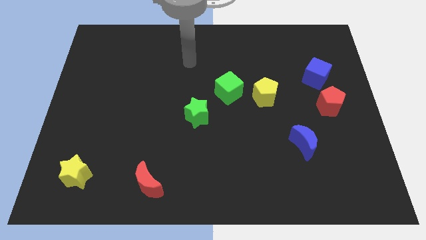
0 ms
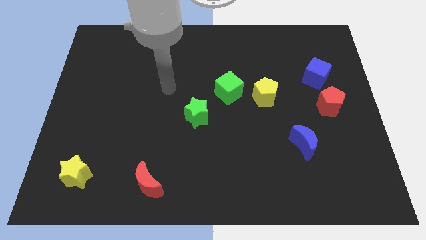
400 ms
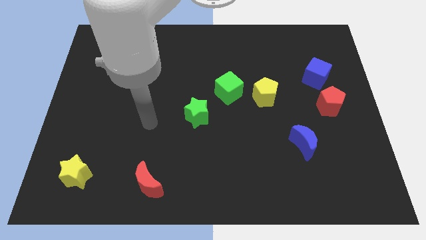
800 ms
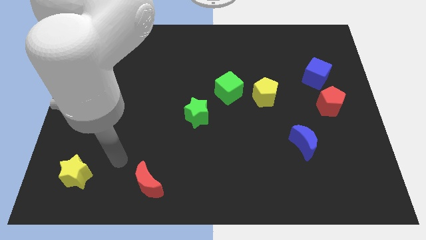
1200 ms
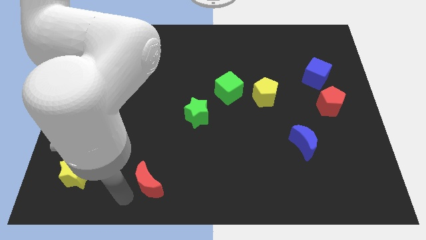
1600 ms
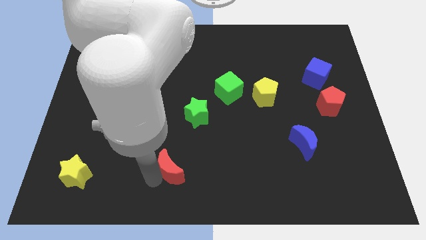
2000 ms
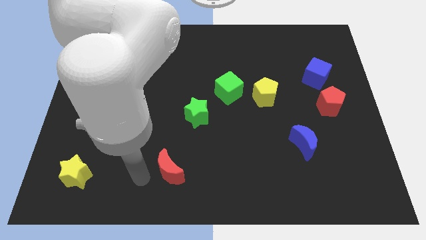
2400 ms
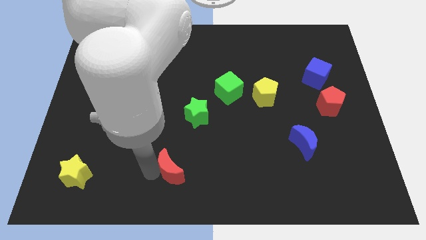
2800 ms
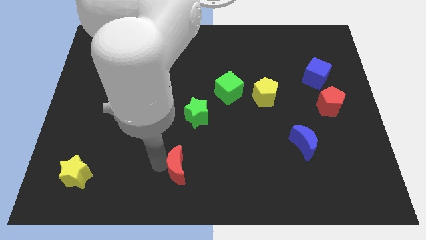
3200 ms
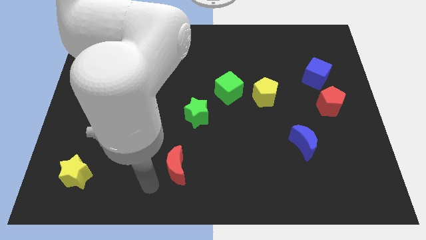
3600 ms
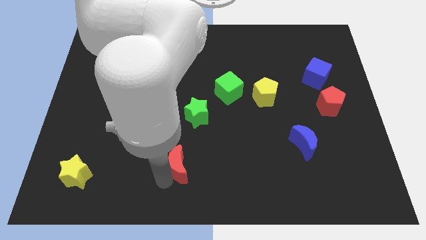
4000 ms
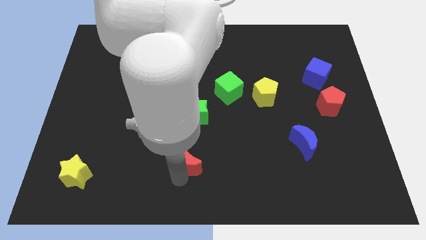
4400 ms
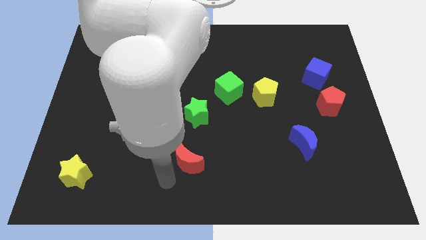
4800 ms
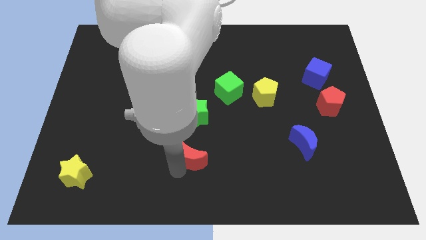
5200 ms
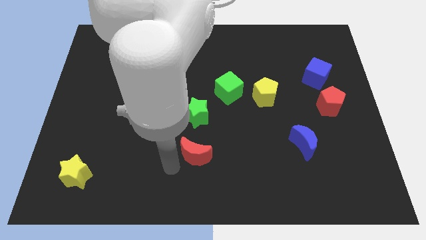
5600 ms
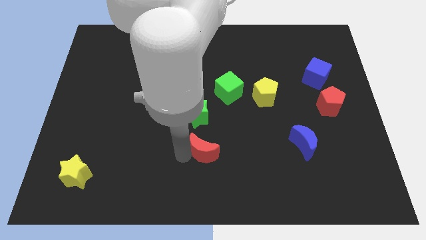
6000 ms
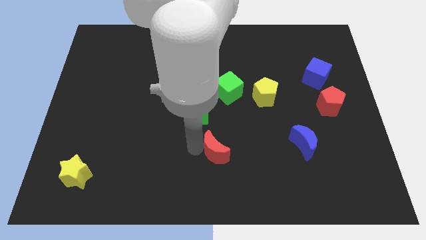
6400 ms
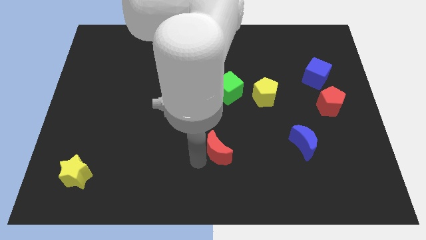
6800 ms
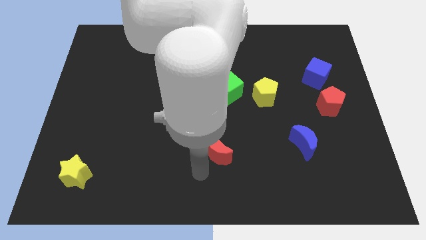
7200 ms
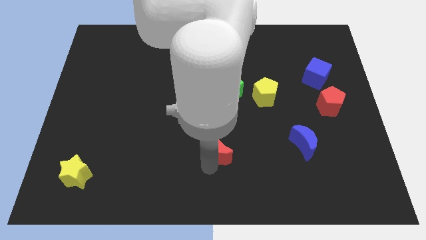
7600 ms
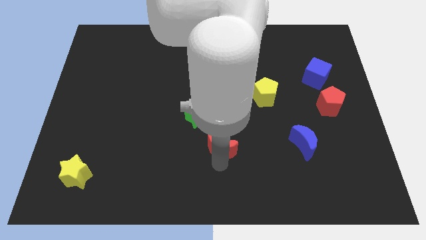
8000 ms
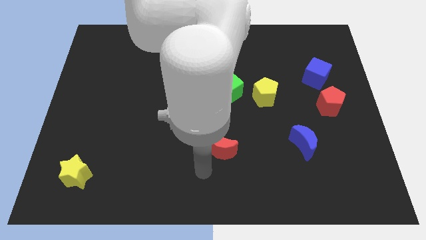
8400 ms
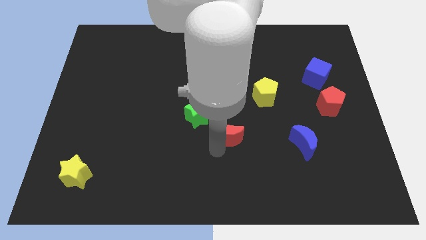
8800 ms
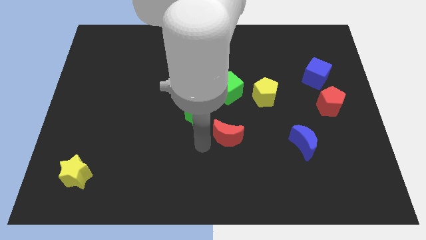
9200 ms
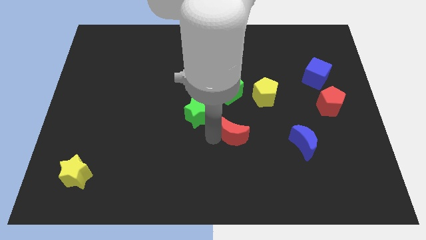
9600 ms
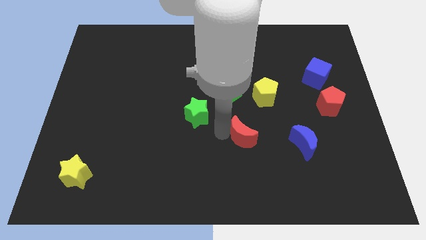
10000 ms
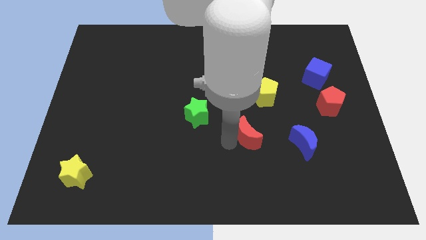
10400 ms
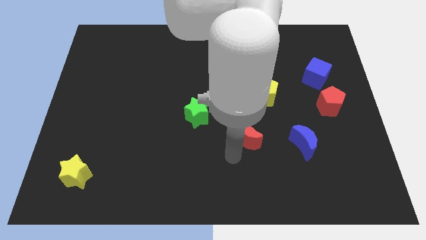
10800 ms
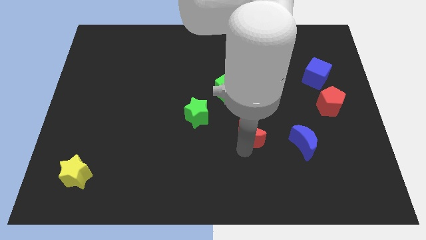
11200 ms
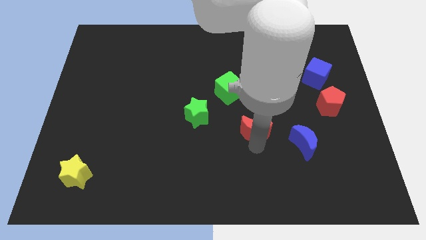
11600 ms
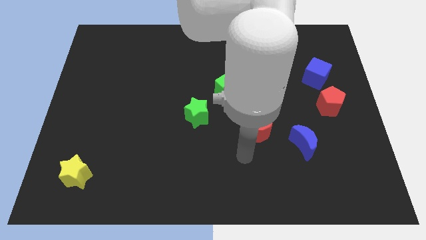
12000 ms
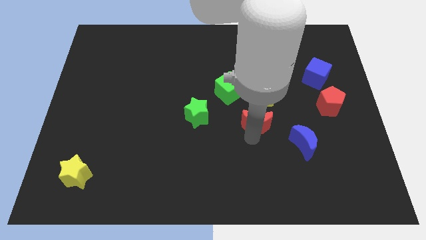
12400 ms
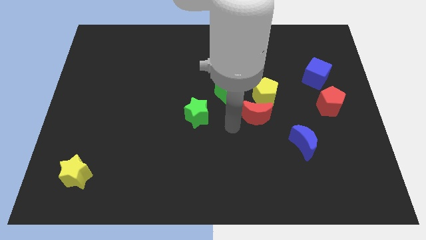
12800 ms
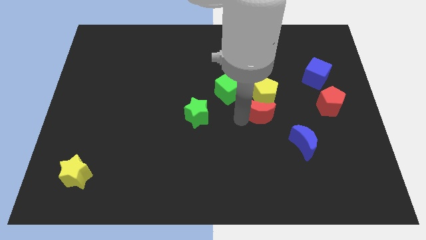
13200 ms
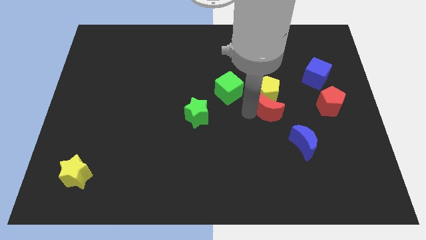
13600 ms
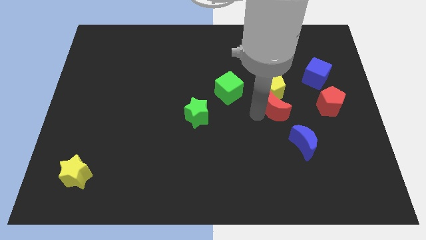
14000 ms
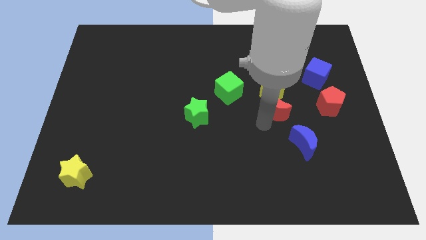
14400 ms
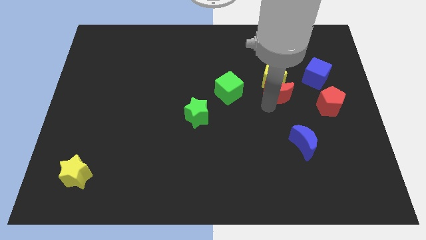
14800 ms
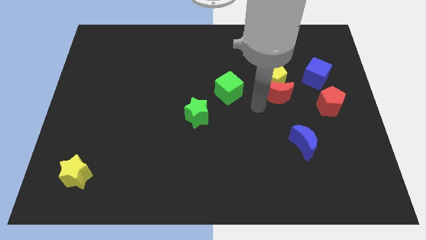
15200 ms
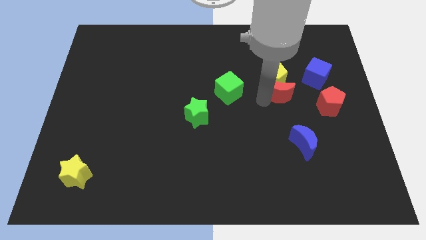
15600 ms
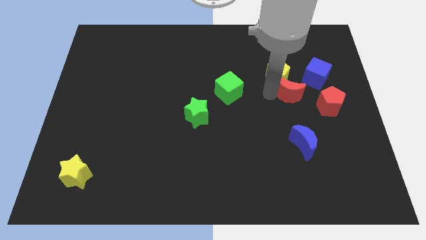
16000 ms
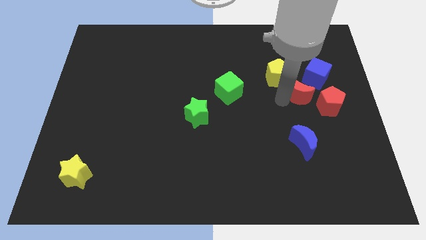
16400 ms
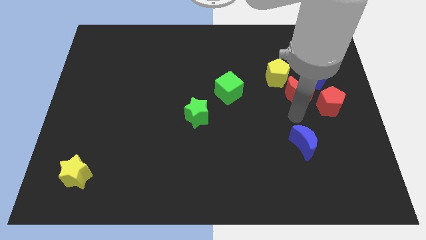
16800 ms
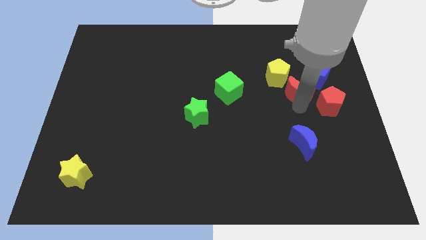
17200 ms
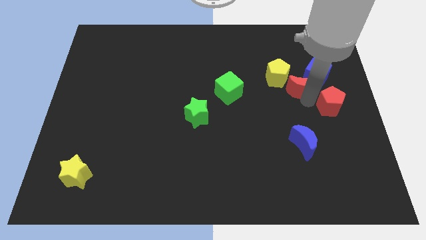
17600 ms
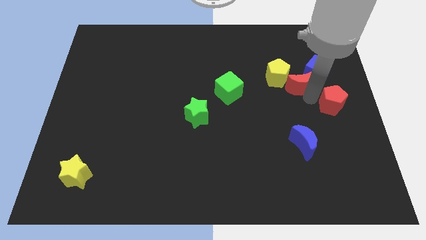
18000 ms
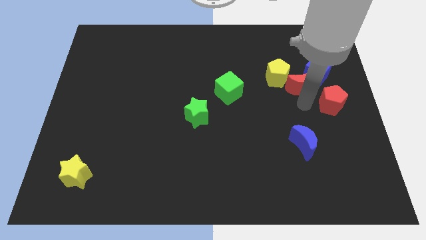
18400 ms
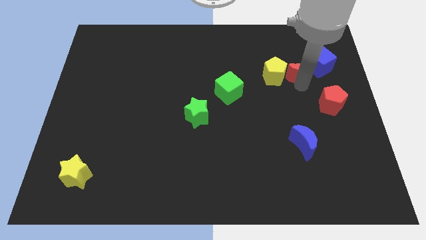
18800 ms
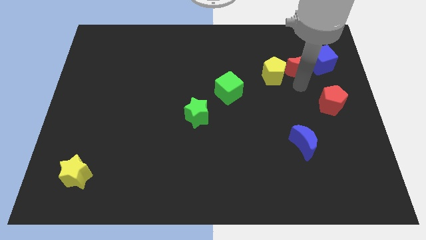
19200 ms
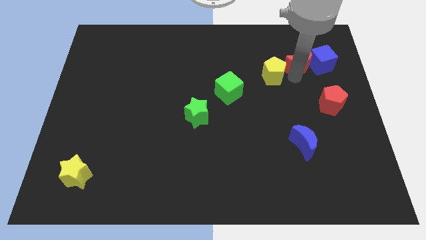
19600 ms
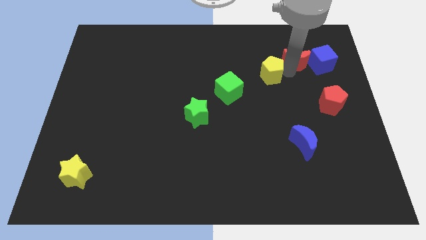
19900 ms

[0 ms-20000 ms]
slide the red moon to the top left side of the blue cube

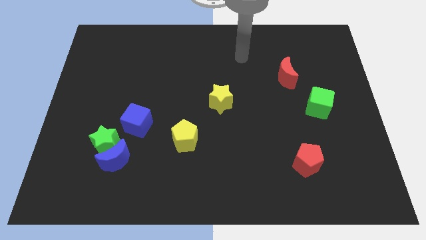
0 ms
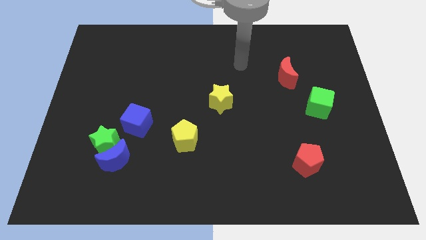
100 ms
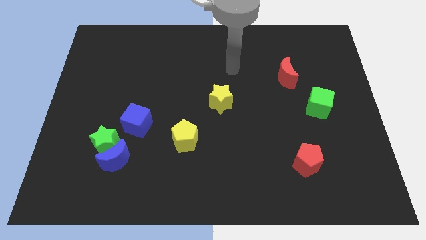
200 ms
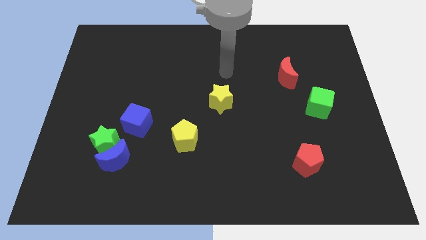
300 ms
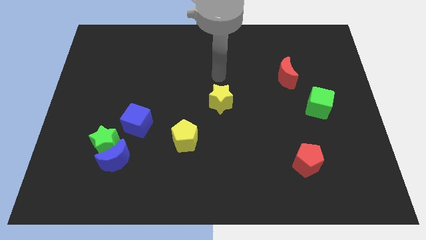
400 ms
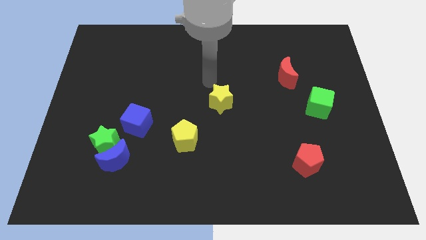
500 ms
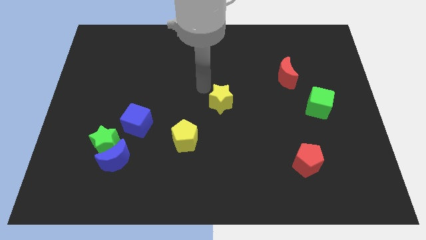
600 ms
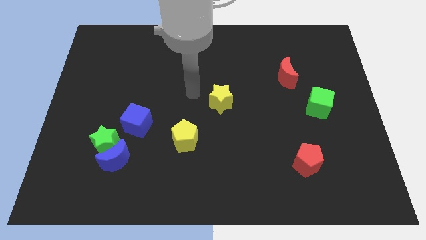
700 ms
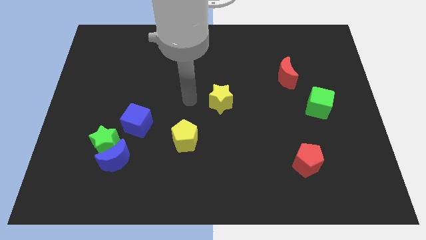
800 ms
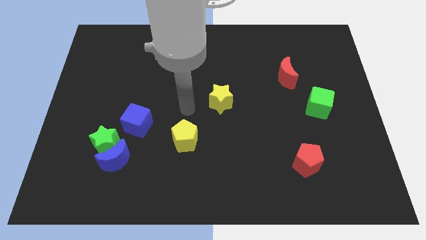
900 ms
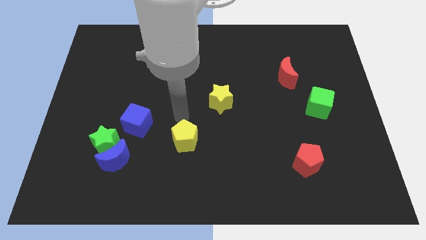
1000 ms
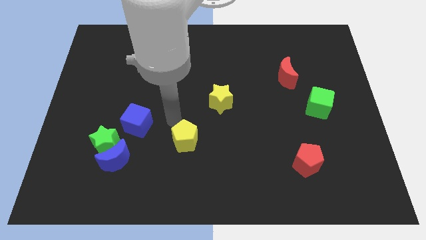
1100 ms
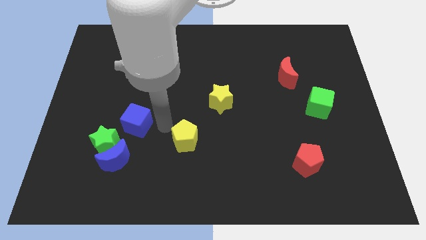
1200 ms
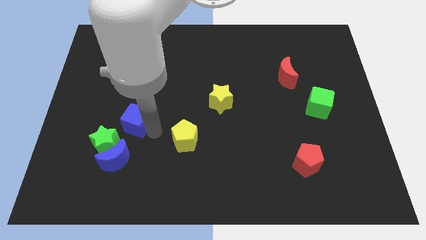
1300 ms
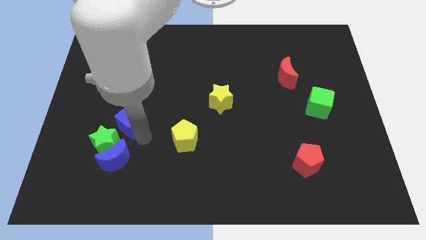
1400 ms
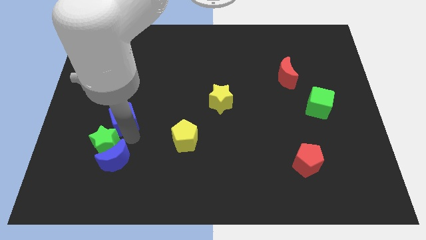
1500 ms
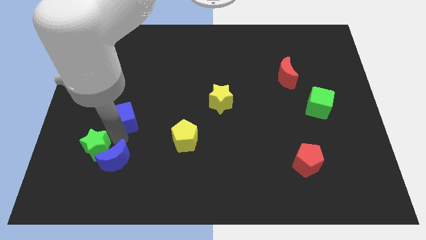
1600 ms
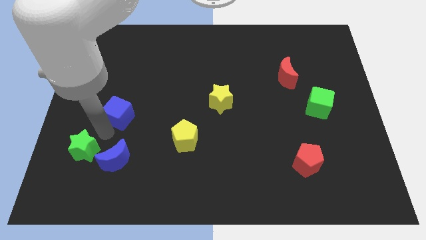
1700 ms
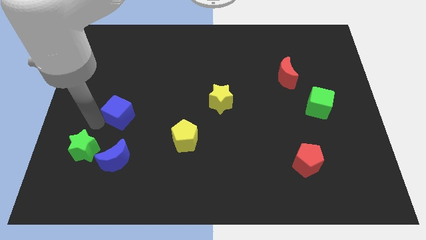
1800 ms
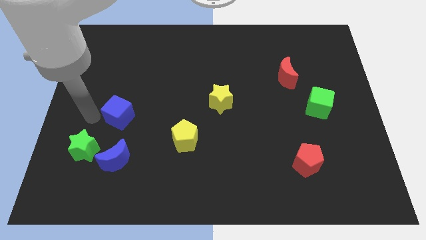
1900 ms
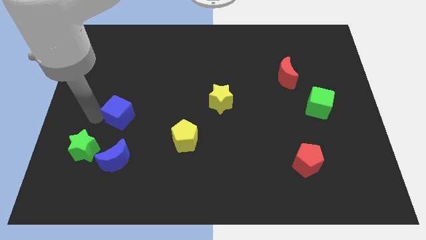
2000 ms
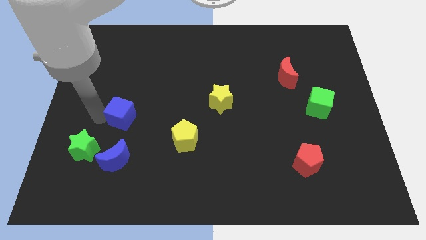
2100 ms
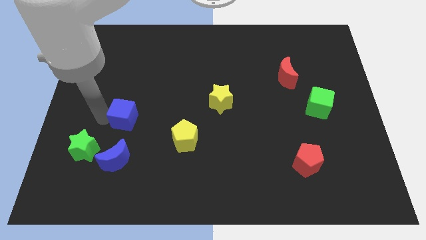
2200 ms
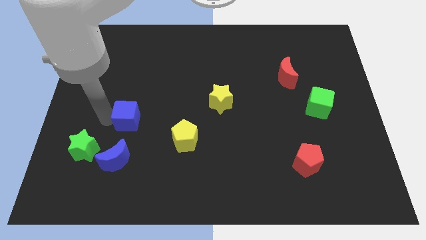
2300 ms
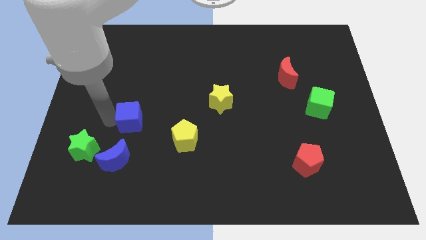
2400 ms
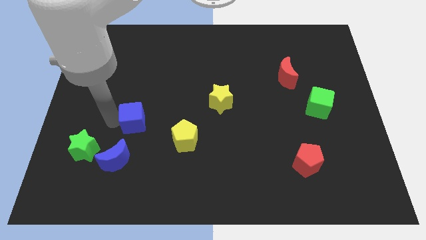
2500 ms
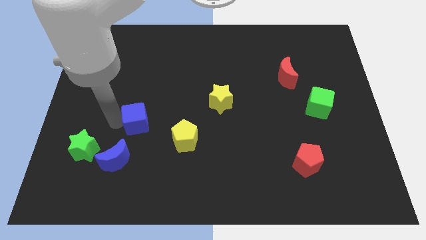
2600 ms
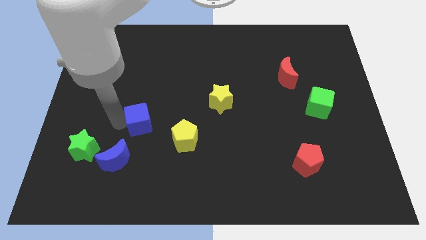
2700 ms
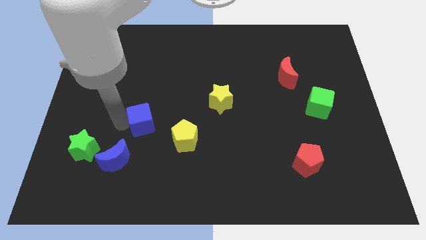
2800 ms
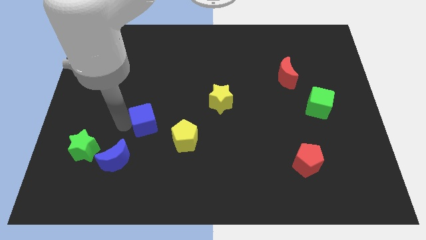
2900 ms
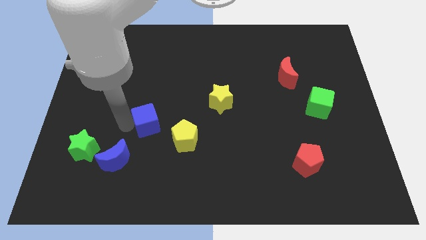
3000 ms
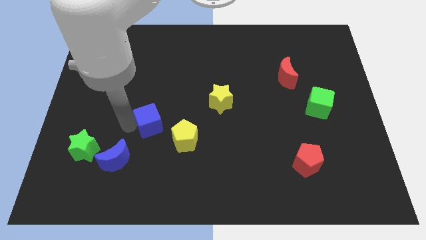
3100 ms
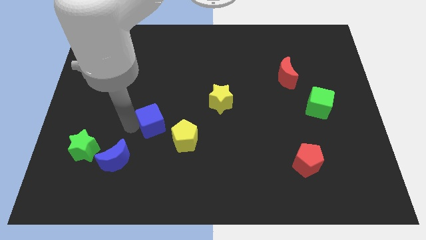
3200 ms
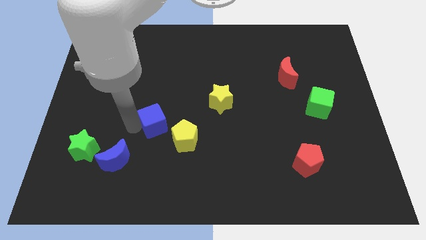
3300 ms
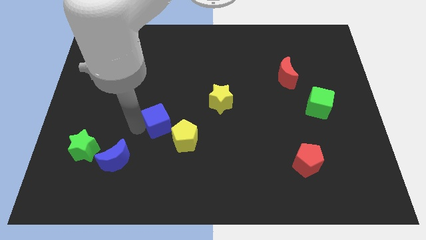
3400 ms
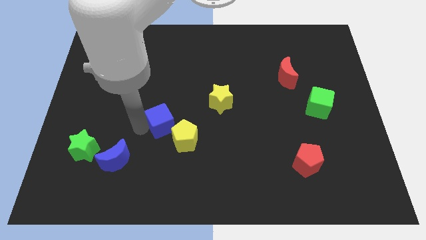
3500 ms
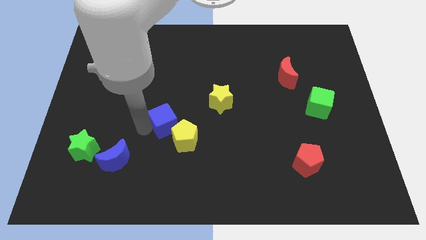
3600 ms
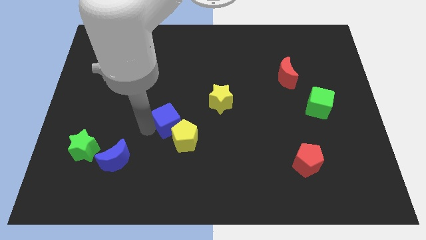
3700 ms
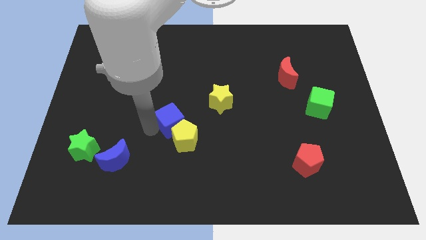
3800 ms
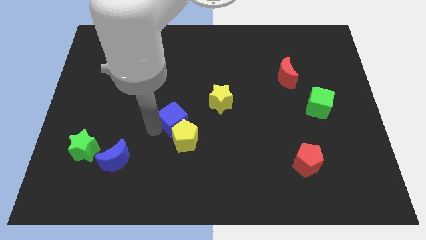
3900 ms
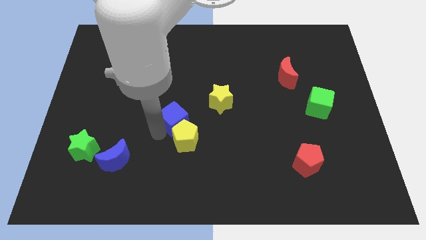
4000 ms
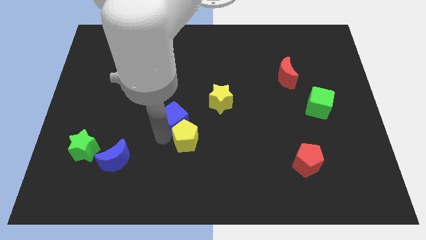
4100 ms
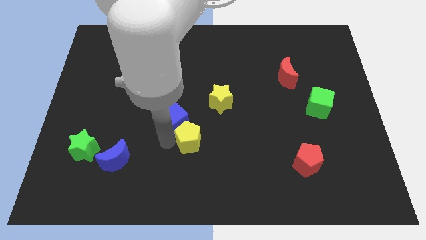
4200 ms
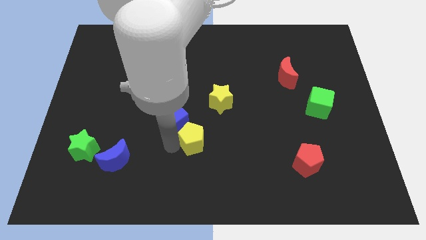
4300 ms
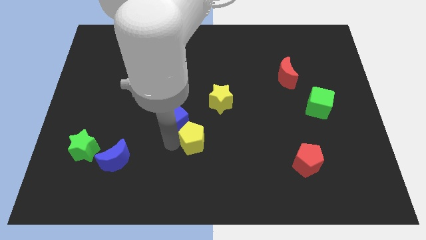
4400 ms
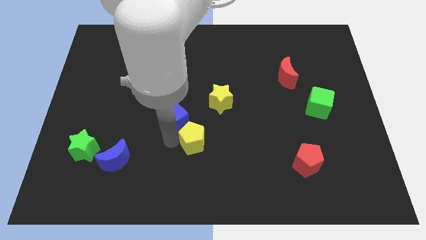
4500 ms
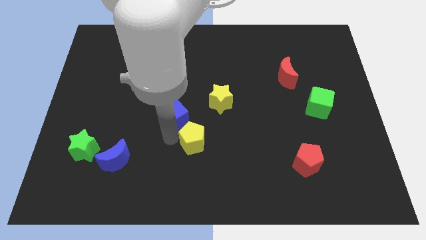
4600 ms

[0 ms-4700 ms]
slide the blue cube to the left of the yellow star
